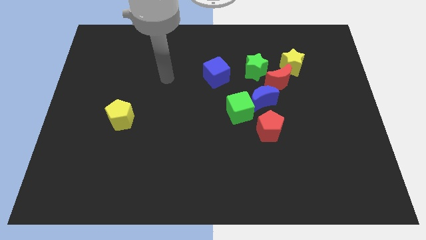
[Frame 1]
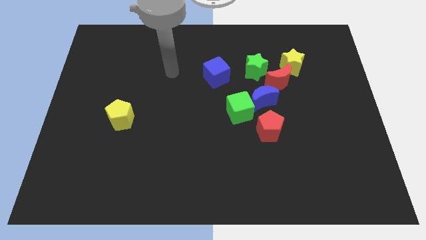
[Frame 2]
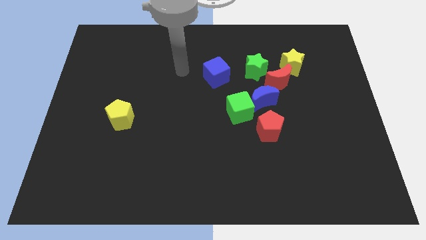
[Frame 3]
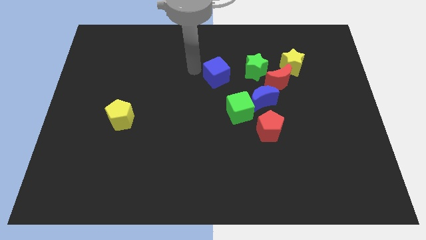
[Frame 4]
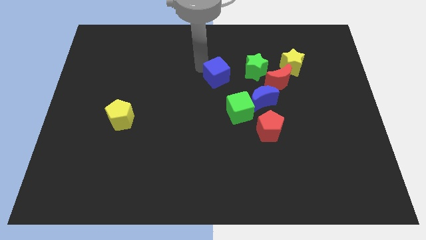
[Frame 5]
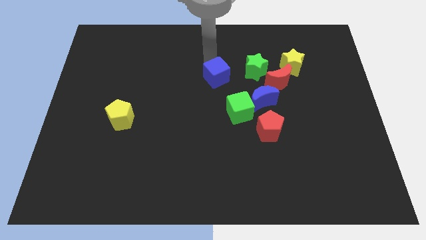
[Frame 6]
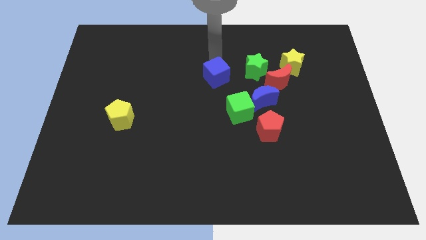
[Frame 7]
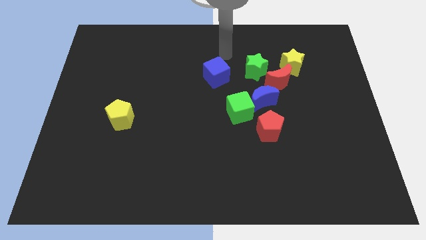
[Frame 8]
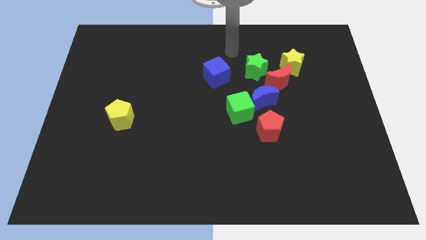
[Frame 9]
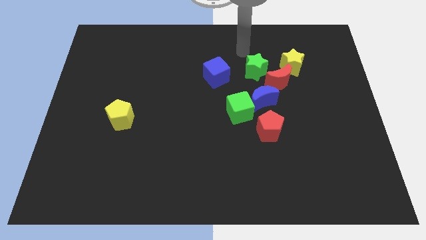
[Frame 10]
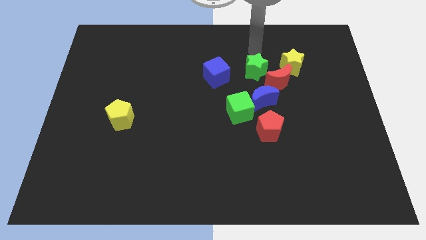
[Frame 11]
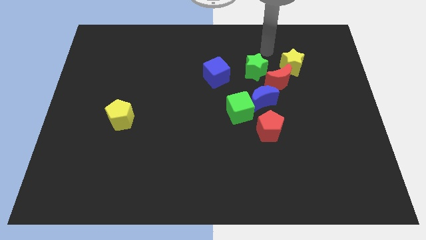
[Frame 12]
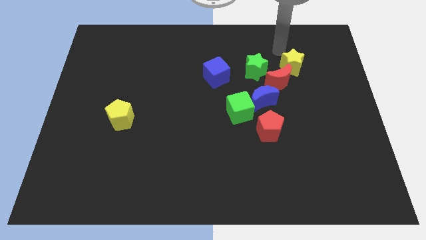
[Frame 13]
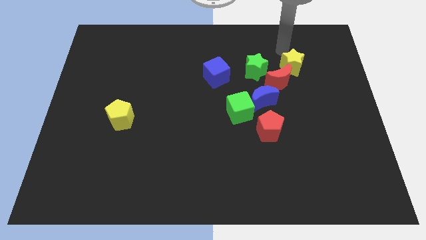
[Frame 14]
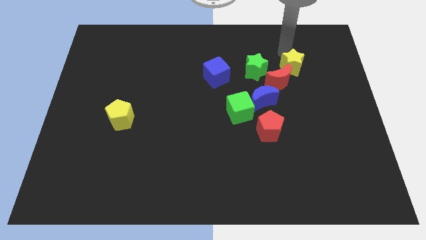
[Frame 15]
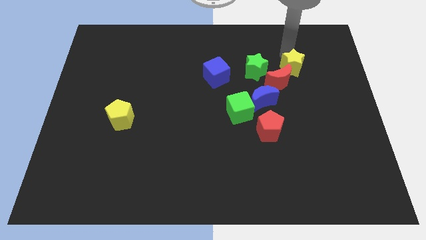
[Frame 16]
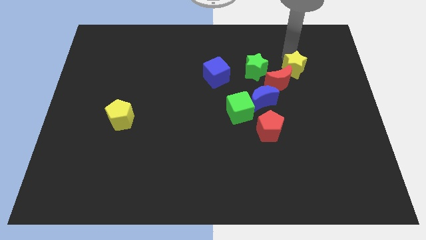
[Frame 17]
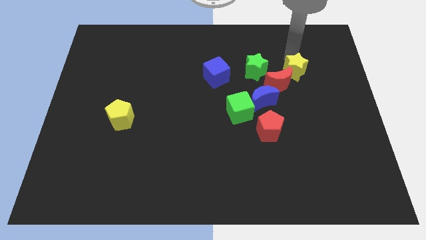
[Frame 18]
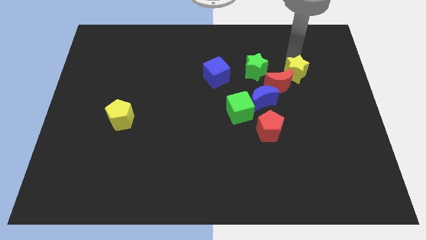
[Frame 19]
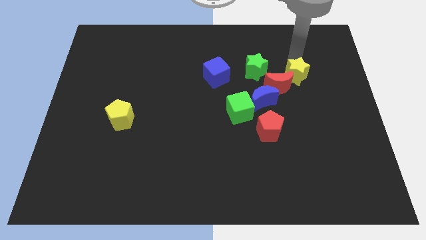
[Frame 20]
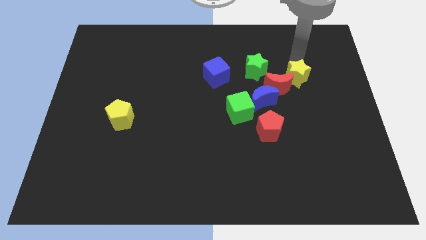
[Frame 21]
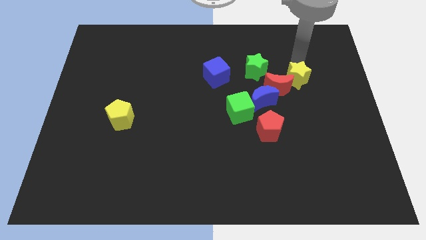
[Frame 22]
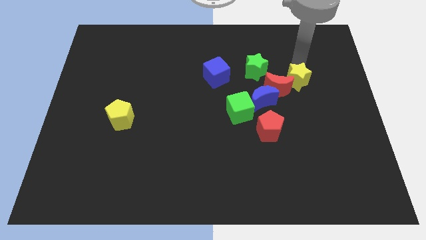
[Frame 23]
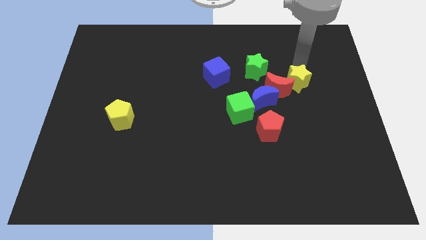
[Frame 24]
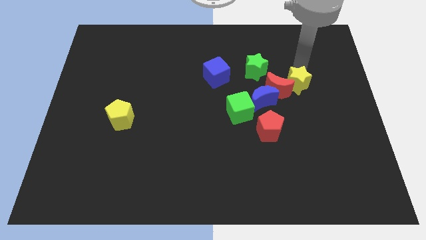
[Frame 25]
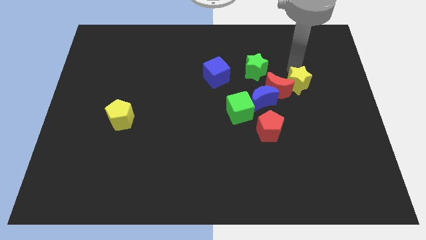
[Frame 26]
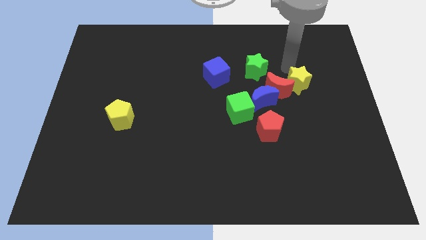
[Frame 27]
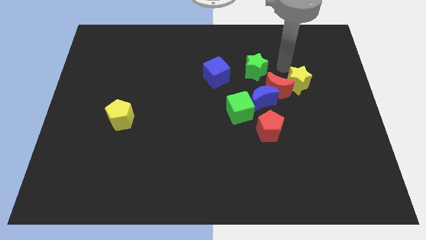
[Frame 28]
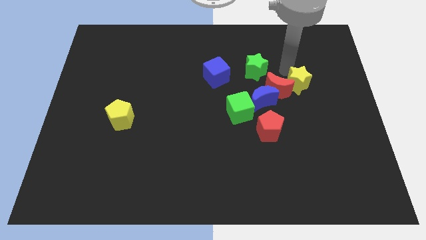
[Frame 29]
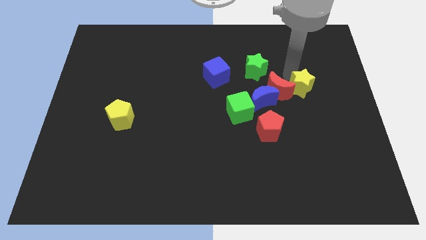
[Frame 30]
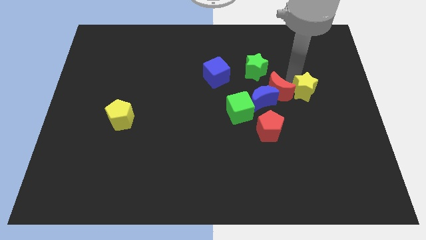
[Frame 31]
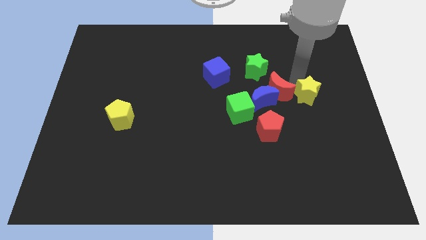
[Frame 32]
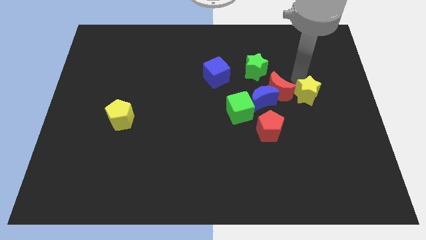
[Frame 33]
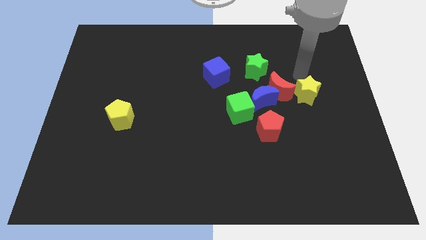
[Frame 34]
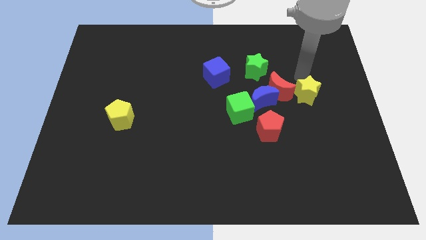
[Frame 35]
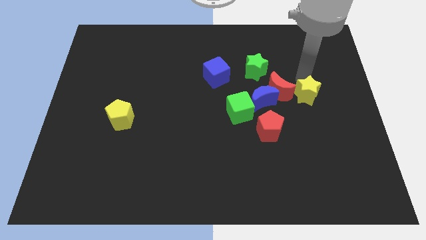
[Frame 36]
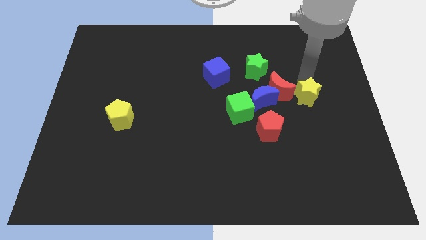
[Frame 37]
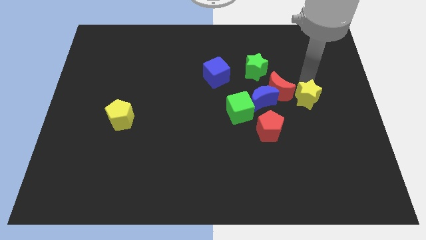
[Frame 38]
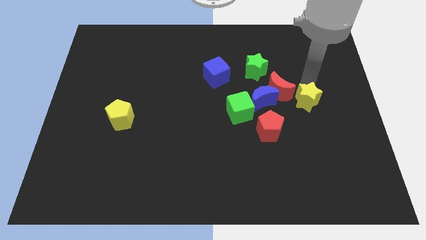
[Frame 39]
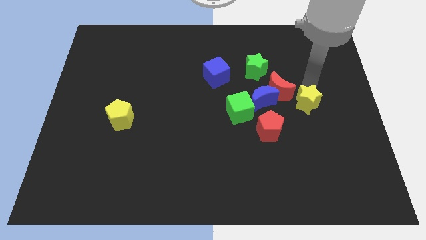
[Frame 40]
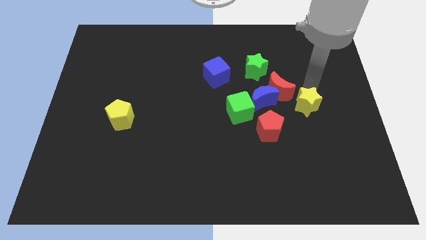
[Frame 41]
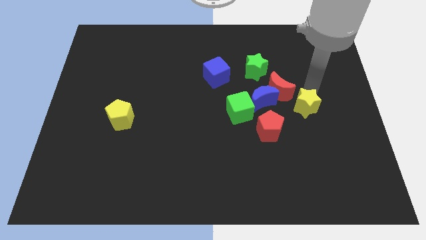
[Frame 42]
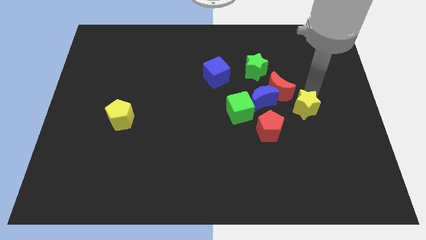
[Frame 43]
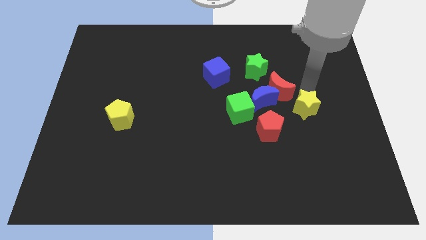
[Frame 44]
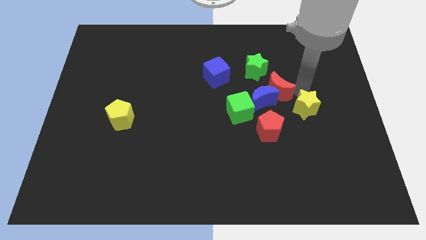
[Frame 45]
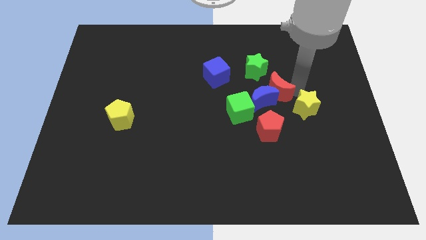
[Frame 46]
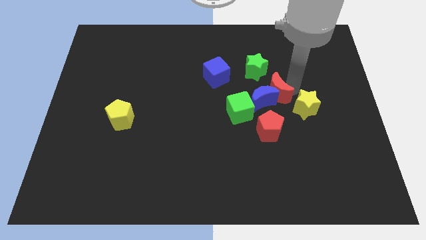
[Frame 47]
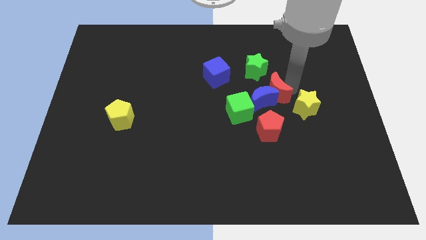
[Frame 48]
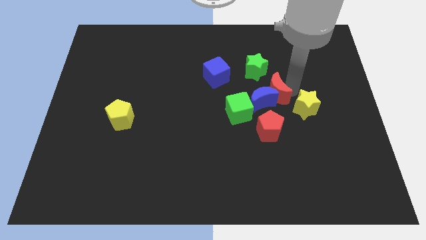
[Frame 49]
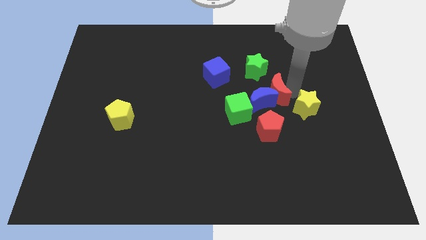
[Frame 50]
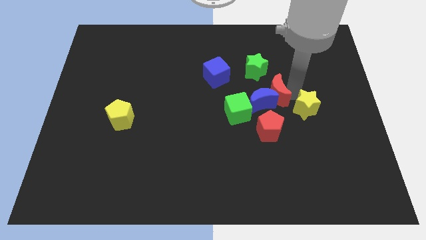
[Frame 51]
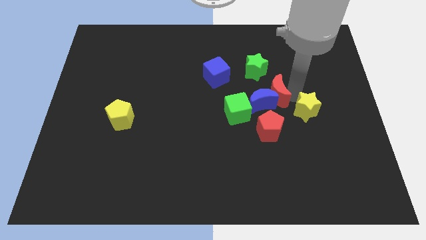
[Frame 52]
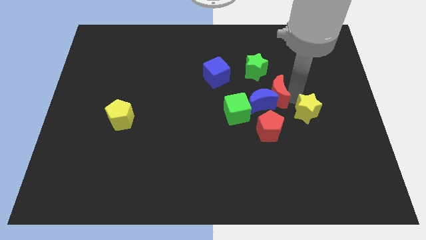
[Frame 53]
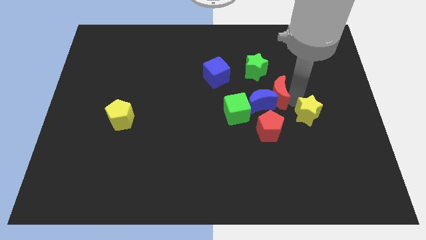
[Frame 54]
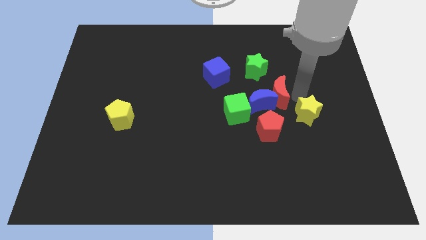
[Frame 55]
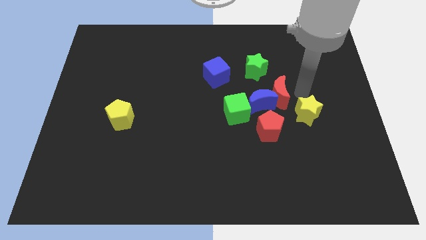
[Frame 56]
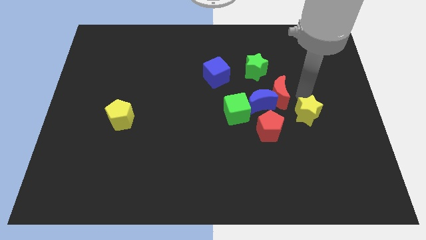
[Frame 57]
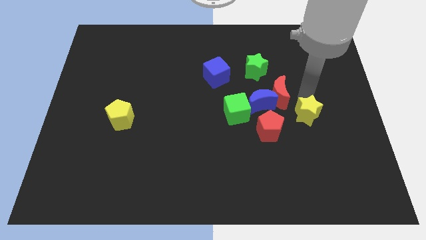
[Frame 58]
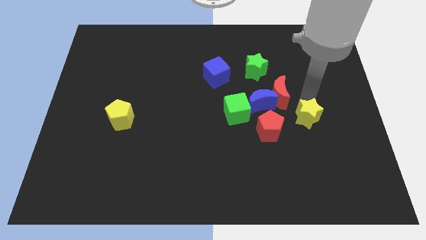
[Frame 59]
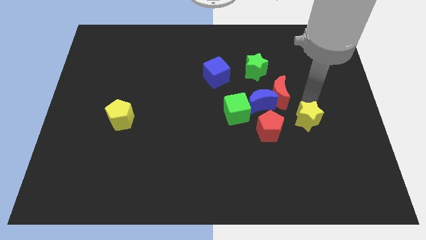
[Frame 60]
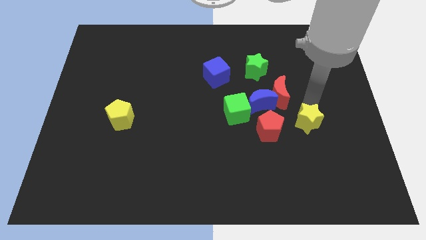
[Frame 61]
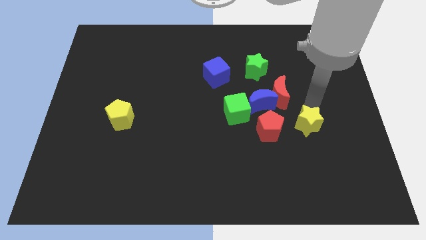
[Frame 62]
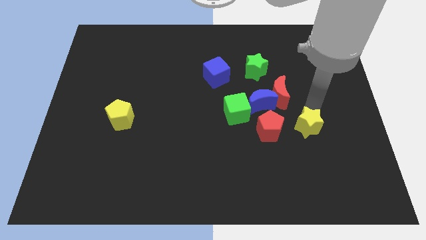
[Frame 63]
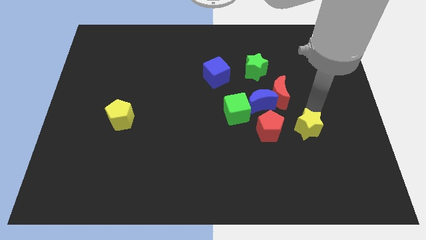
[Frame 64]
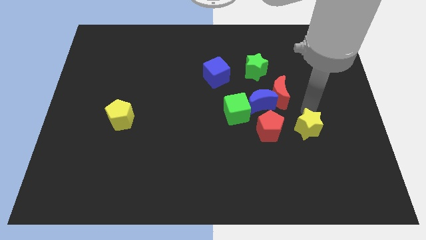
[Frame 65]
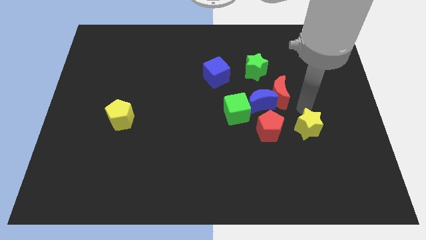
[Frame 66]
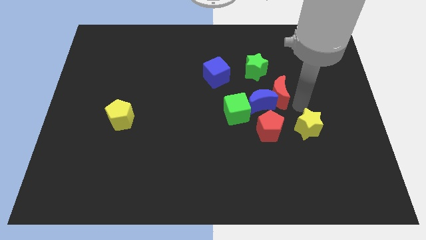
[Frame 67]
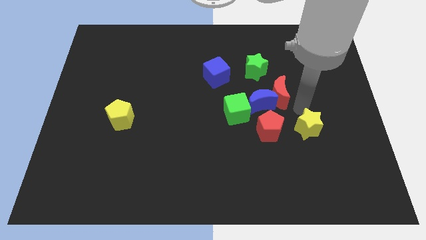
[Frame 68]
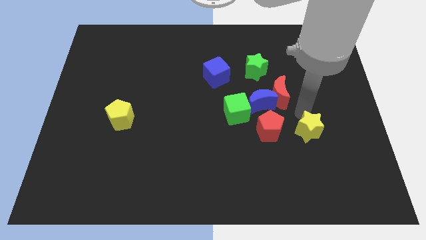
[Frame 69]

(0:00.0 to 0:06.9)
slide the yellow star downwards

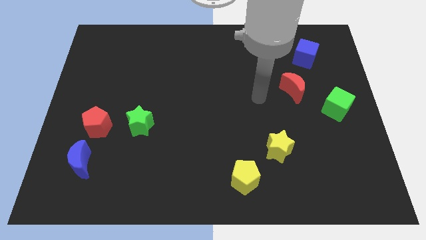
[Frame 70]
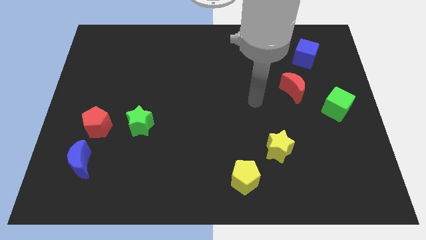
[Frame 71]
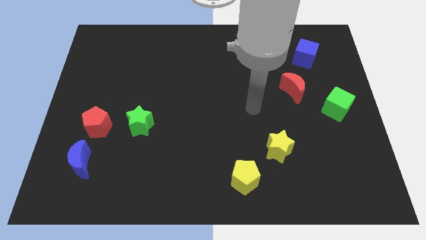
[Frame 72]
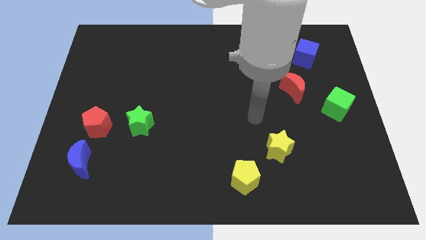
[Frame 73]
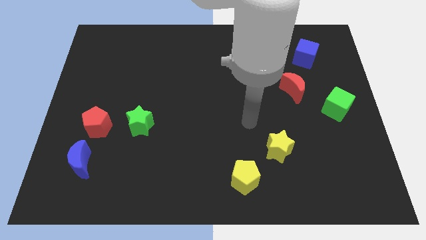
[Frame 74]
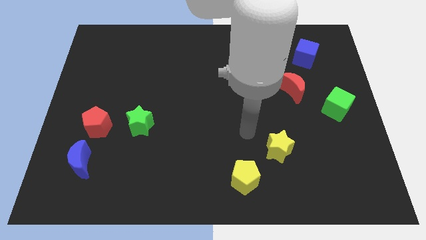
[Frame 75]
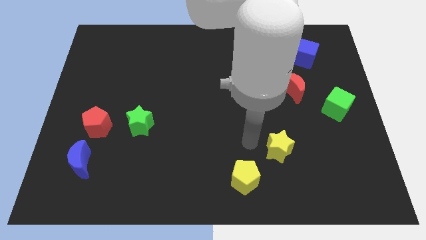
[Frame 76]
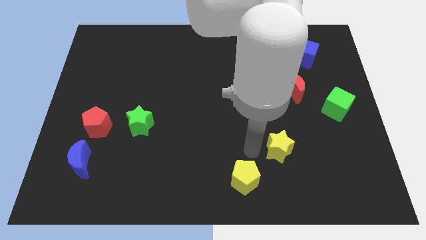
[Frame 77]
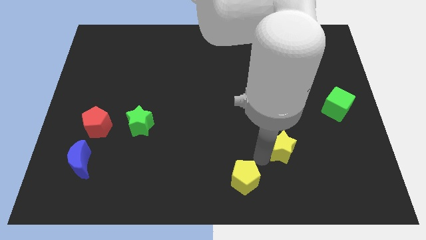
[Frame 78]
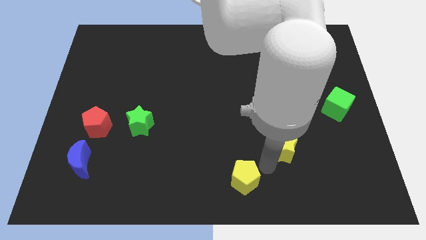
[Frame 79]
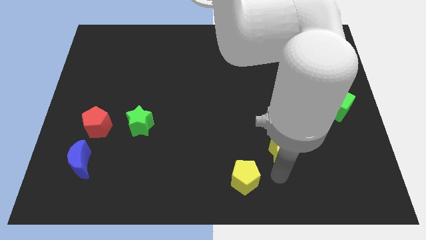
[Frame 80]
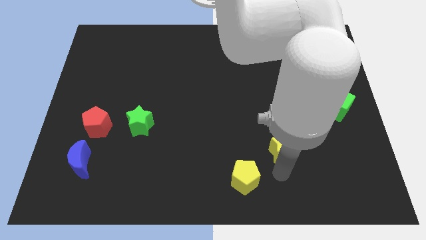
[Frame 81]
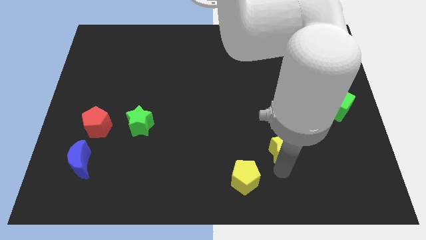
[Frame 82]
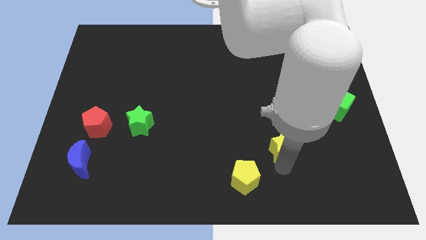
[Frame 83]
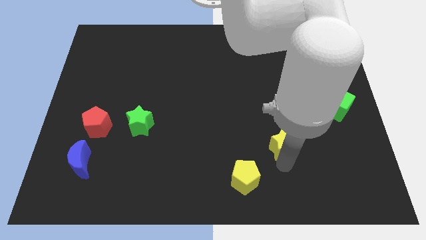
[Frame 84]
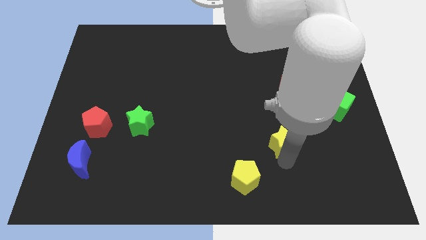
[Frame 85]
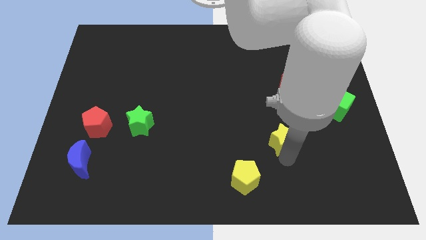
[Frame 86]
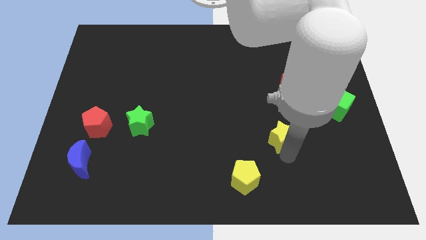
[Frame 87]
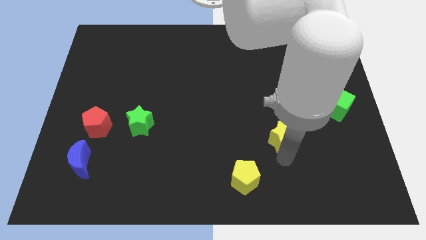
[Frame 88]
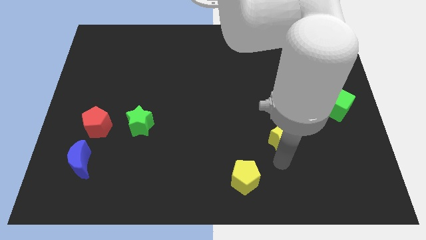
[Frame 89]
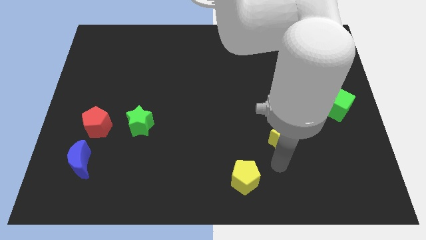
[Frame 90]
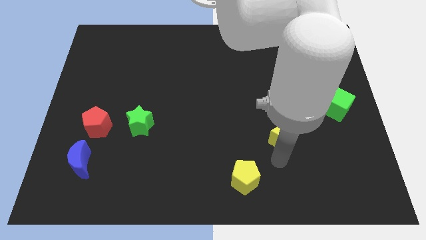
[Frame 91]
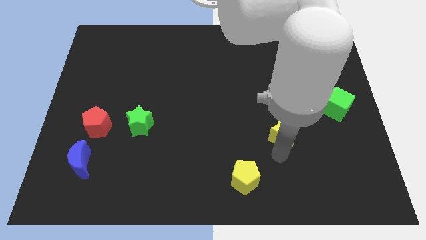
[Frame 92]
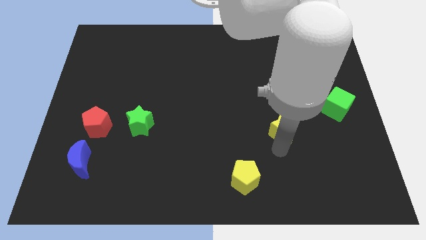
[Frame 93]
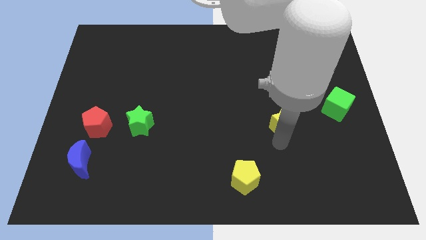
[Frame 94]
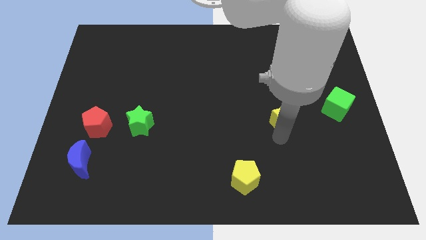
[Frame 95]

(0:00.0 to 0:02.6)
move the yellow star upwards a bit
